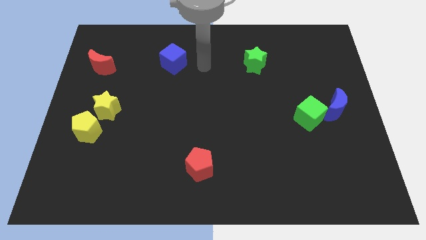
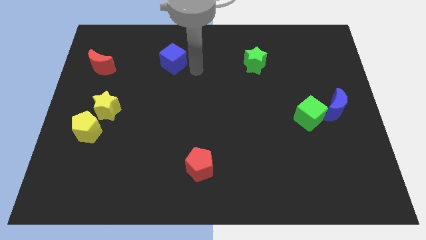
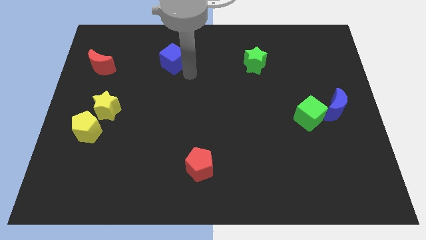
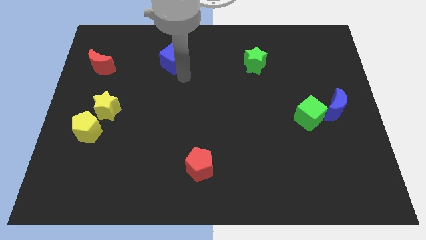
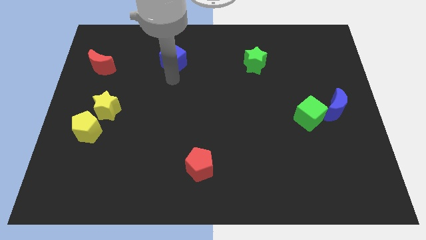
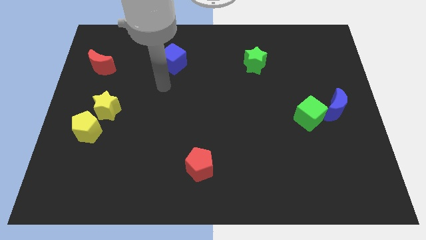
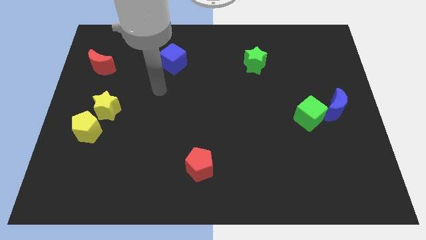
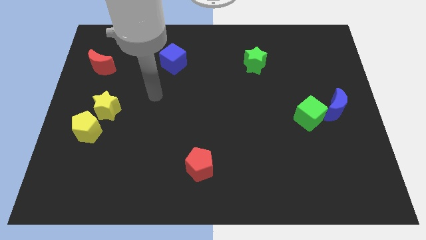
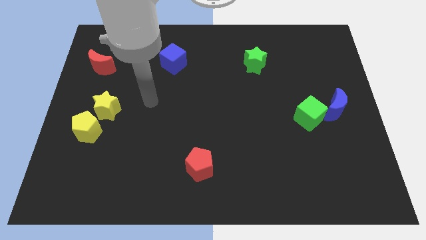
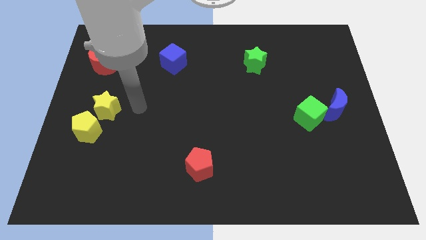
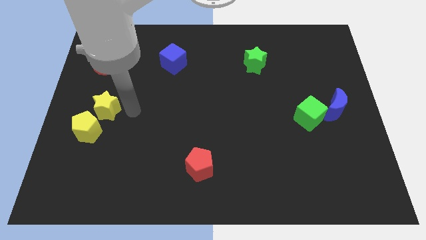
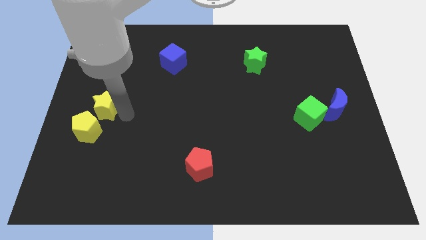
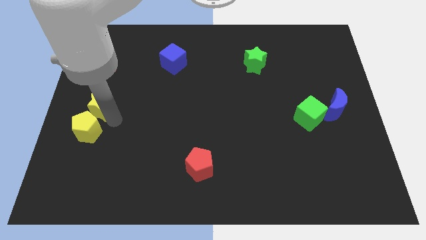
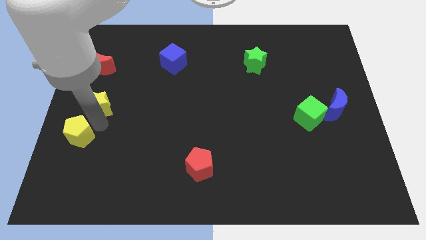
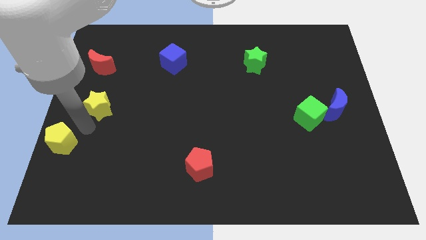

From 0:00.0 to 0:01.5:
move the yellow star away from the yellow pentagon

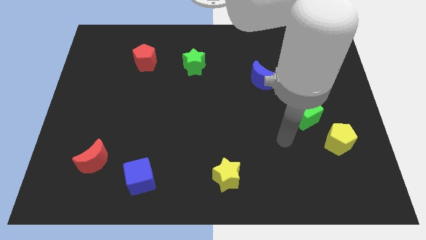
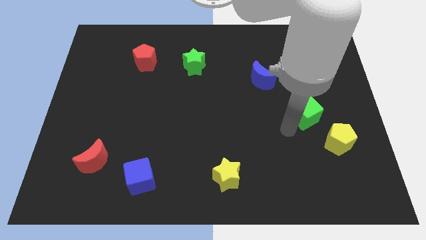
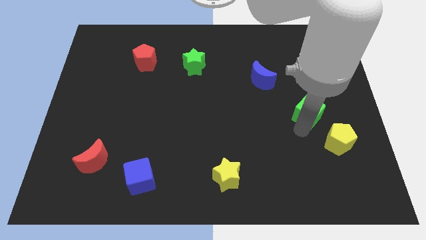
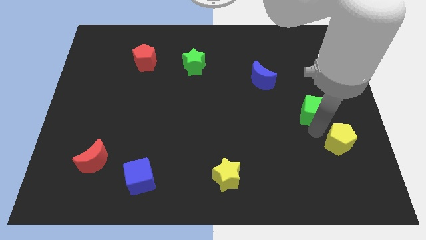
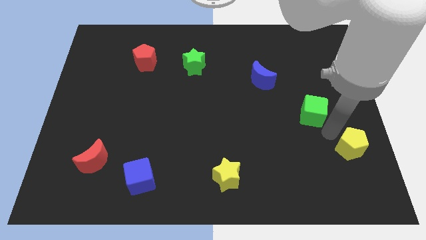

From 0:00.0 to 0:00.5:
move the green cube away from the yellow pentagon

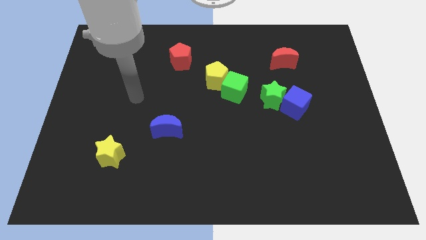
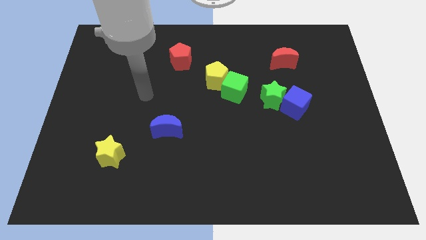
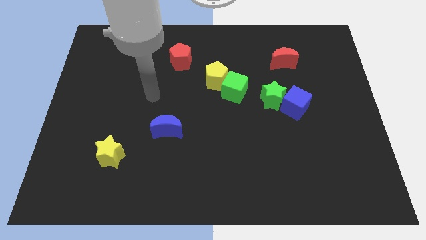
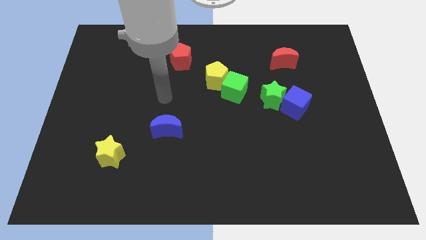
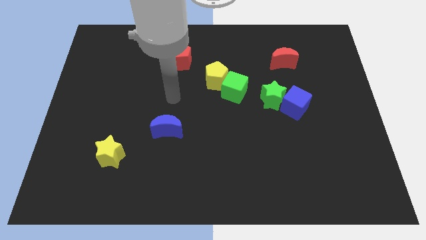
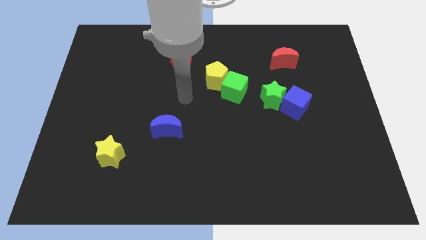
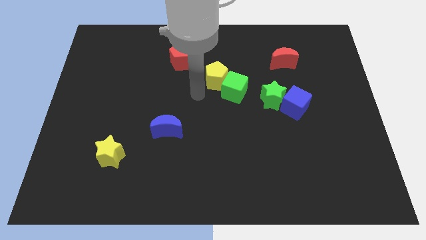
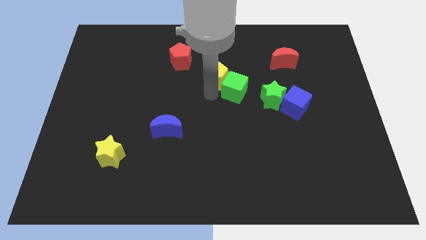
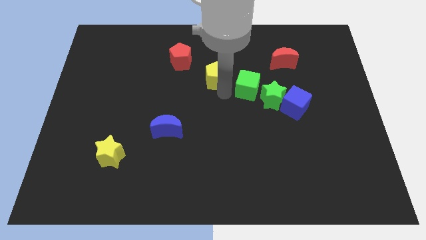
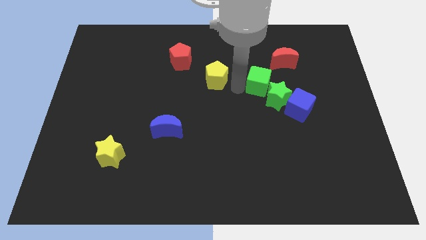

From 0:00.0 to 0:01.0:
separate the yellow pentagon from the green cube

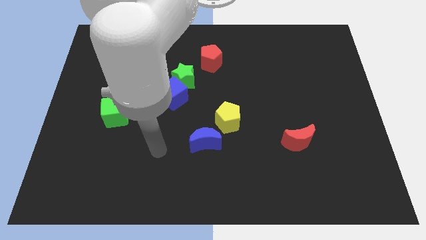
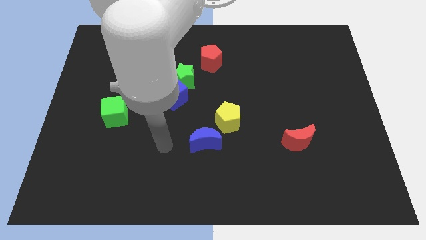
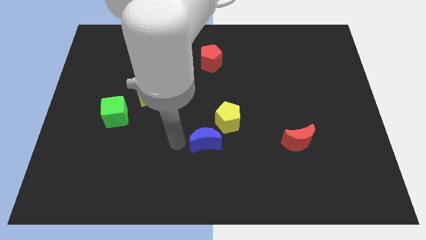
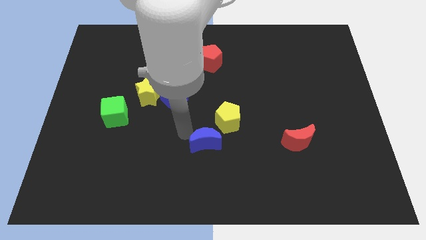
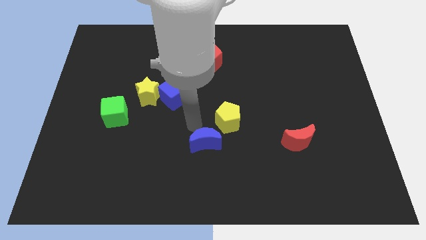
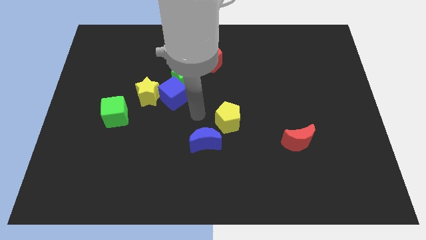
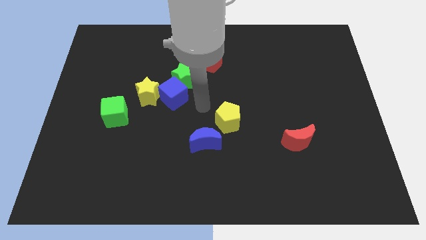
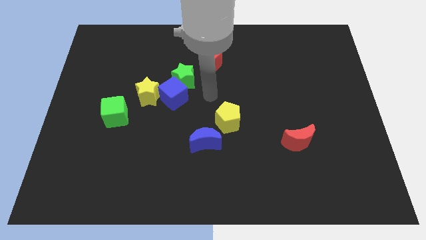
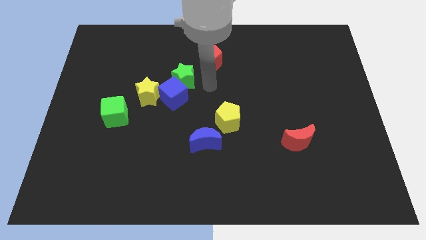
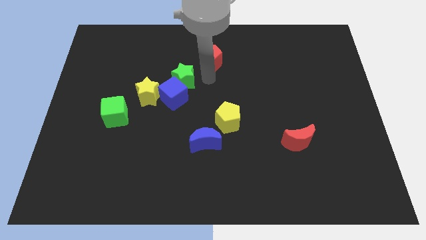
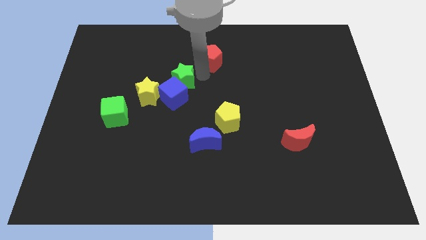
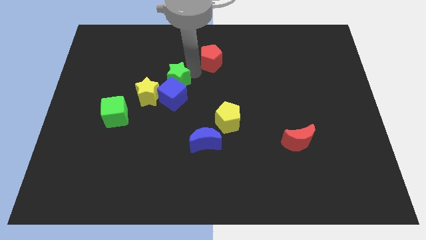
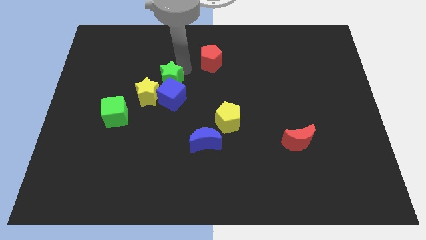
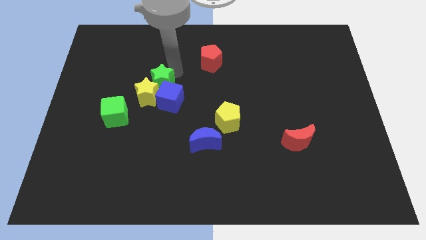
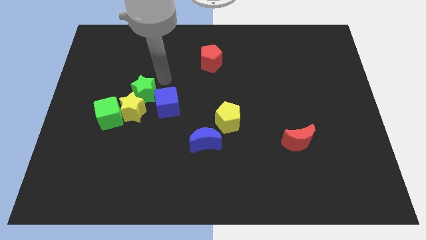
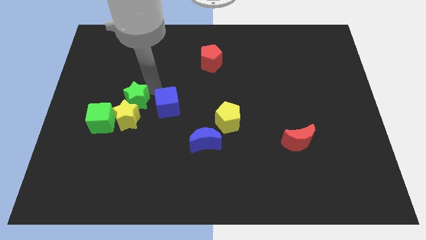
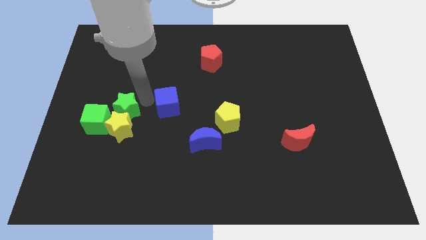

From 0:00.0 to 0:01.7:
pull the blue cube apart from the green star and yellow star

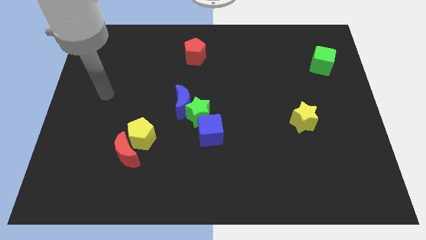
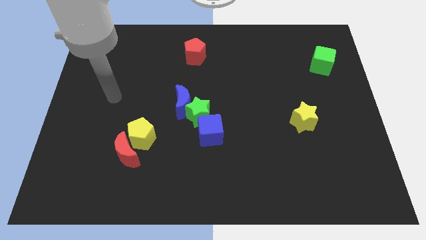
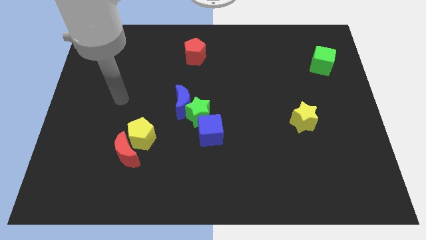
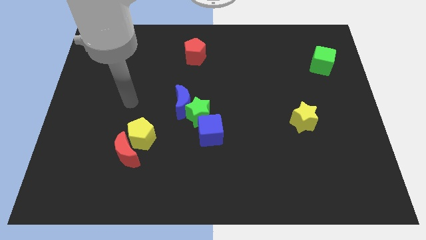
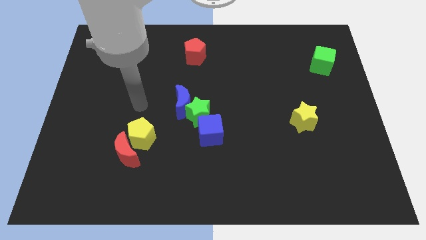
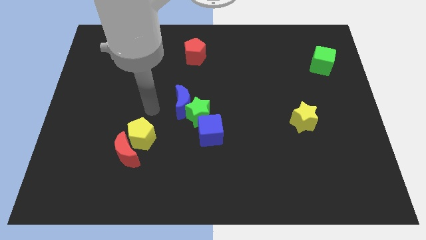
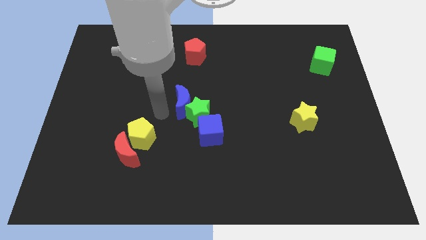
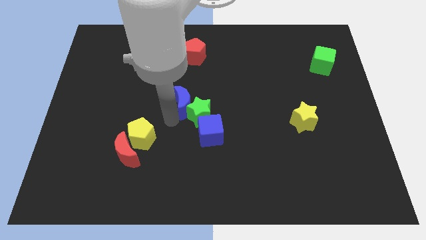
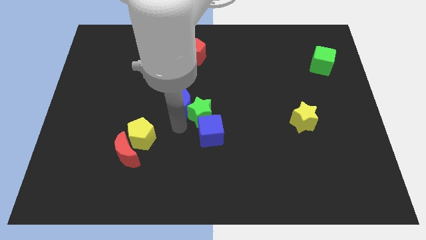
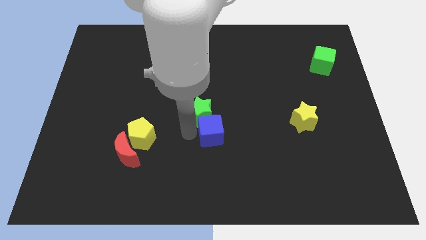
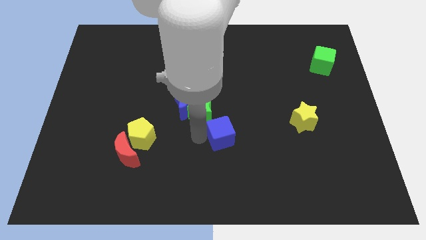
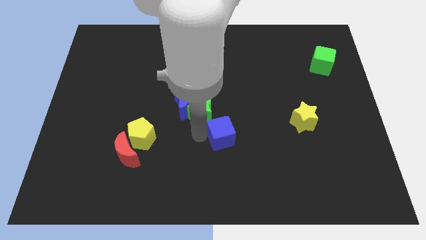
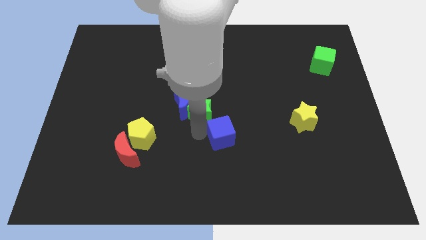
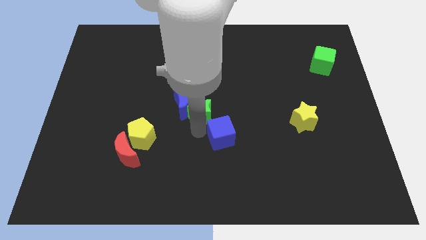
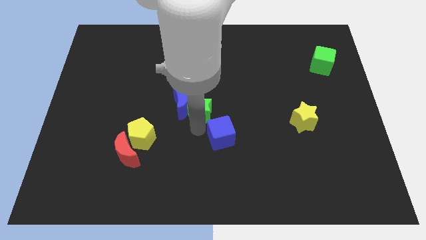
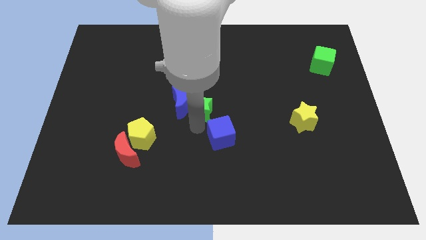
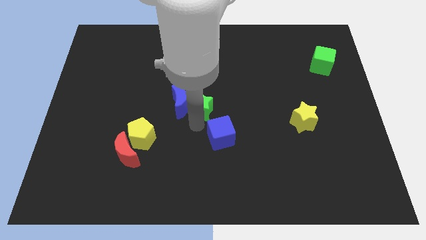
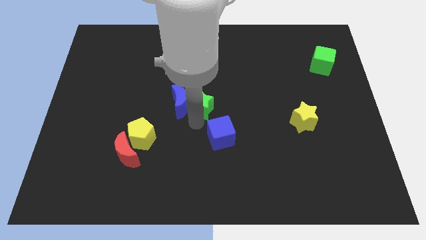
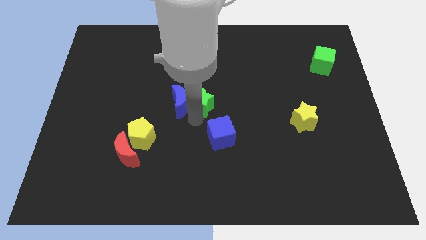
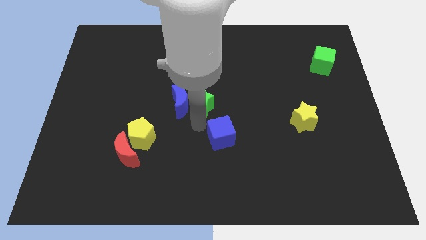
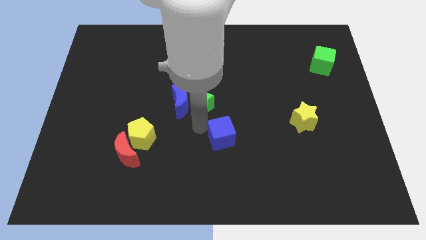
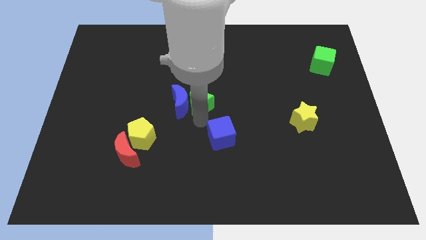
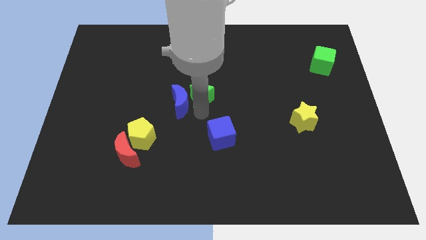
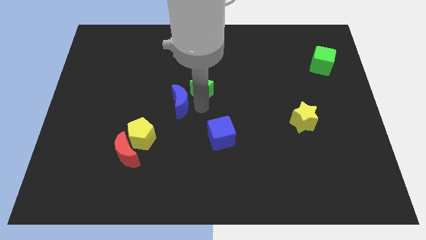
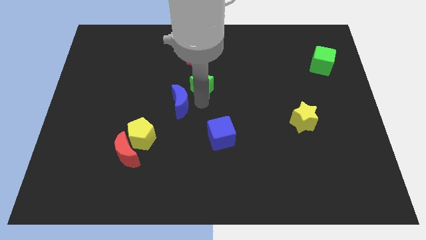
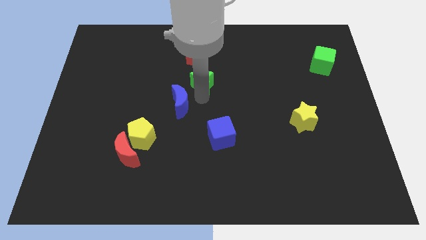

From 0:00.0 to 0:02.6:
pull the green star apart from the blue moon and blue cube

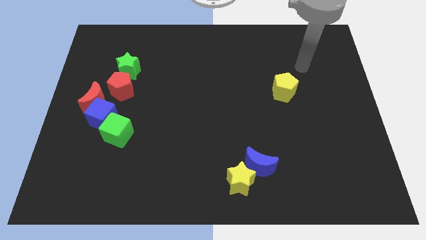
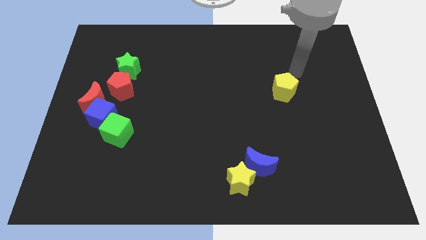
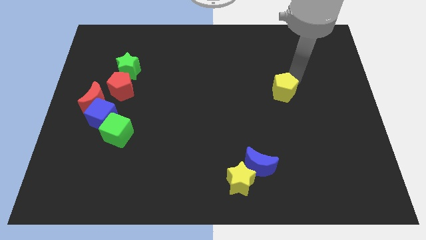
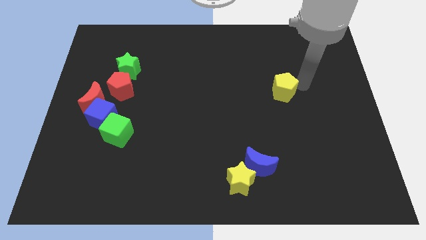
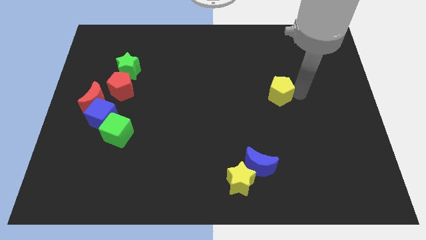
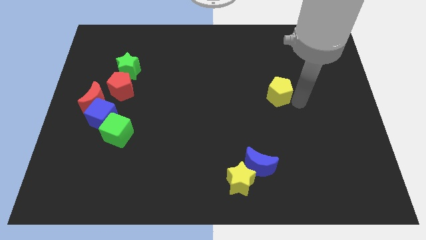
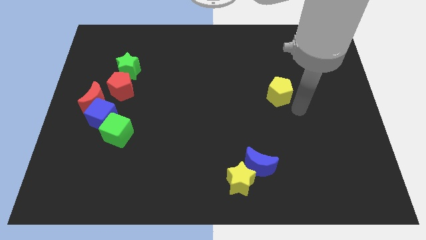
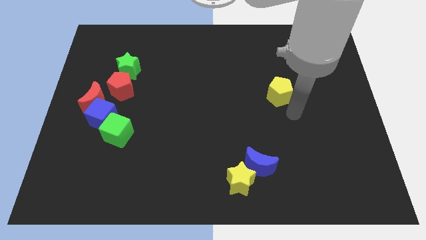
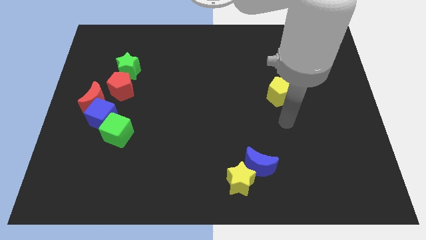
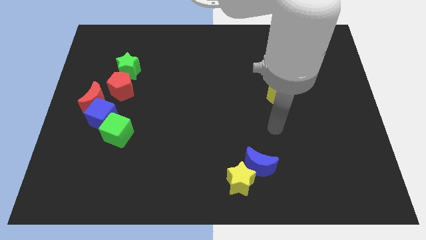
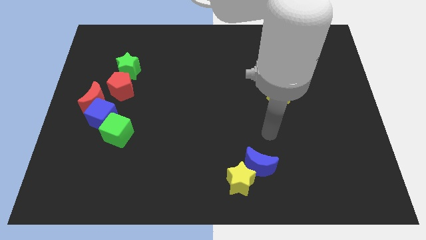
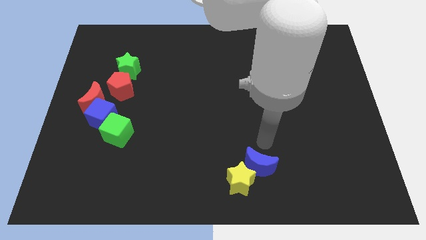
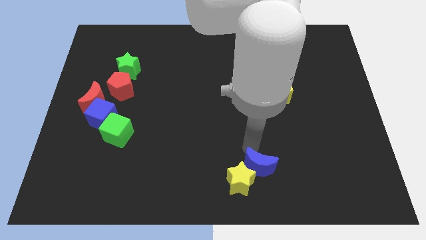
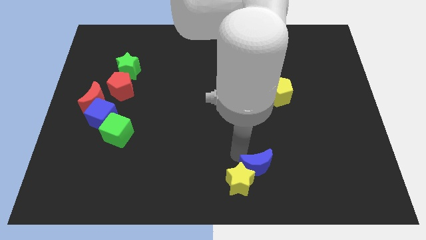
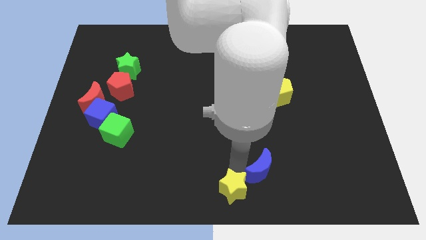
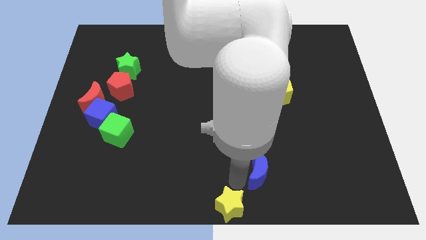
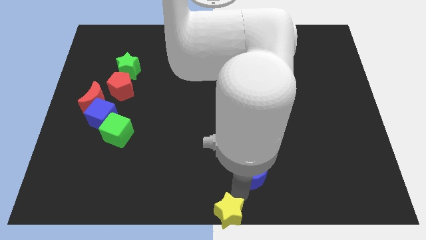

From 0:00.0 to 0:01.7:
separate the blue moon from the yellow star

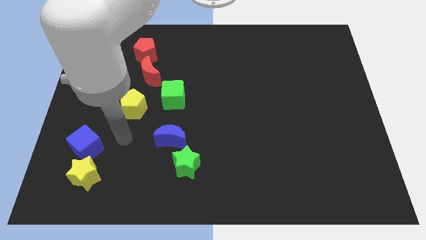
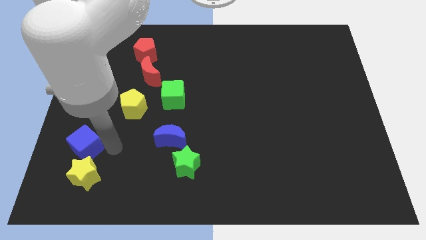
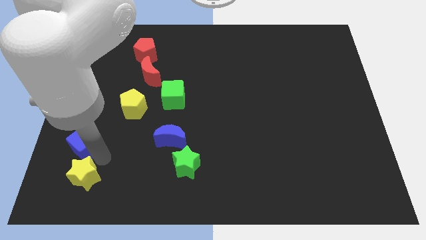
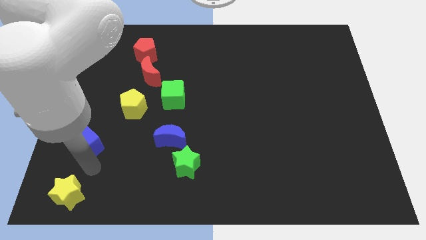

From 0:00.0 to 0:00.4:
pull the blue cube apart from the yellow star

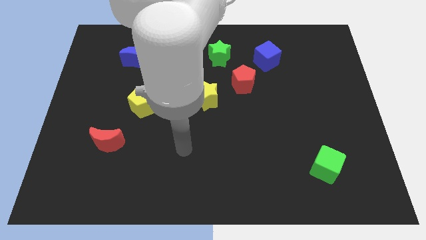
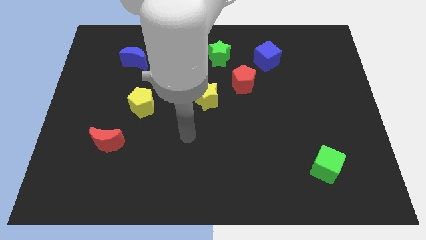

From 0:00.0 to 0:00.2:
pull the red pentagon apart from the yellow star
